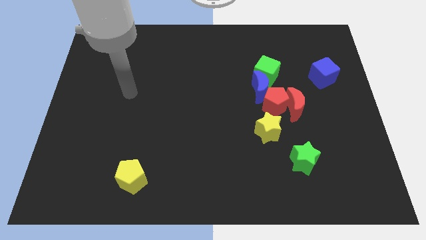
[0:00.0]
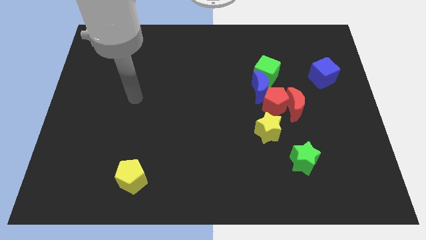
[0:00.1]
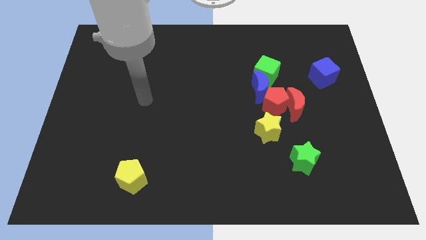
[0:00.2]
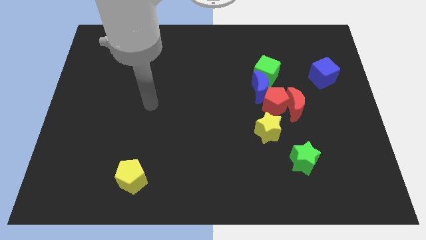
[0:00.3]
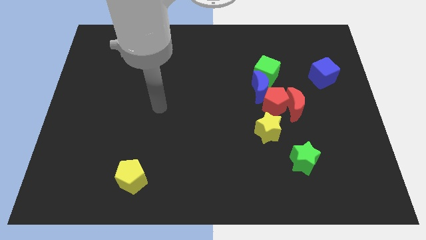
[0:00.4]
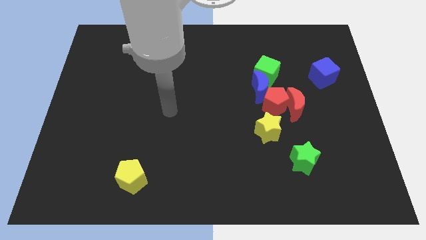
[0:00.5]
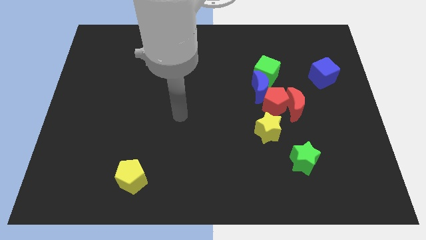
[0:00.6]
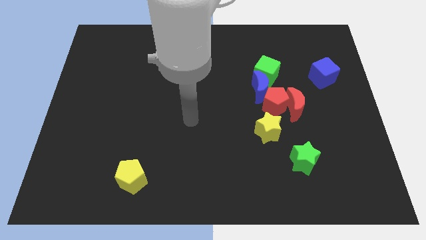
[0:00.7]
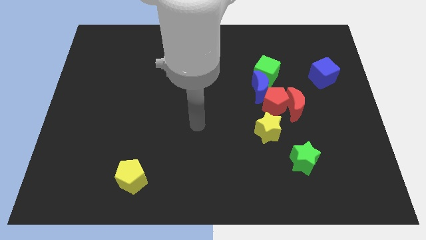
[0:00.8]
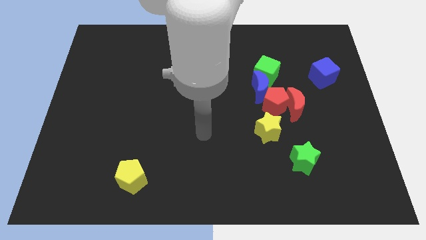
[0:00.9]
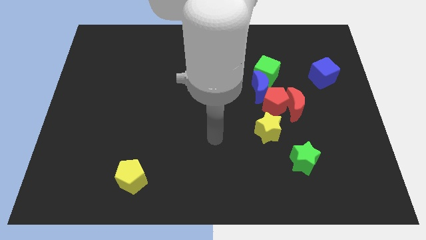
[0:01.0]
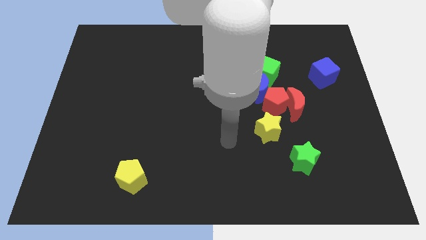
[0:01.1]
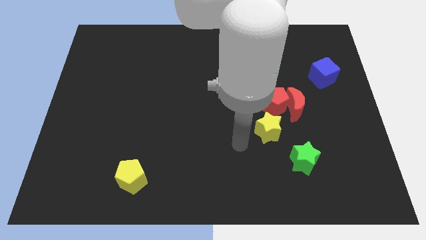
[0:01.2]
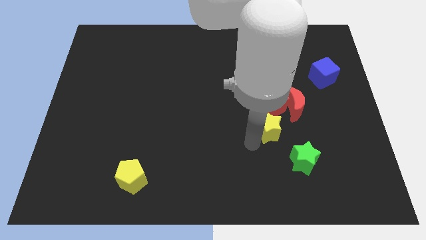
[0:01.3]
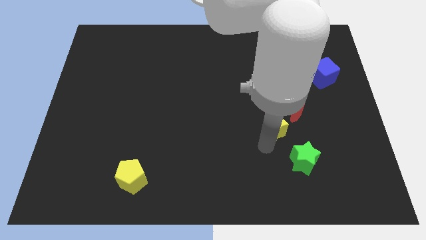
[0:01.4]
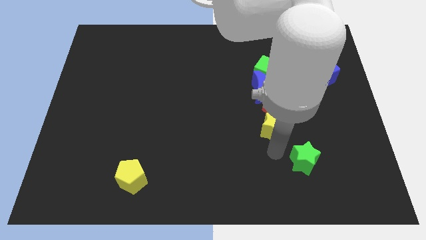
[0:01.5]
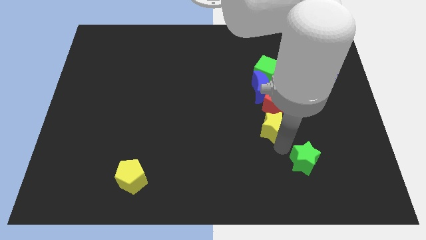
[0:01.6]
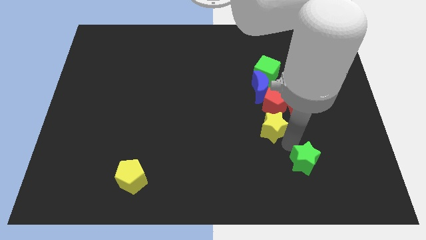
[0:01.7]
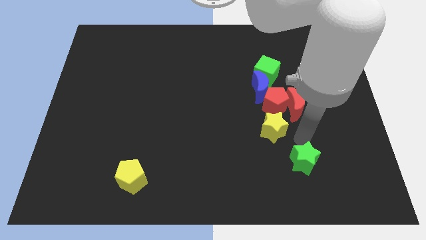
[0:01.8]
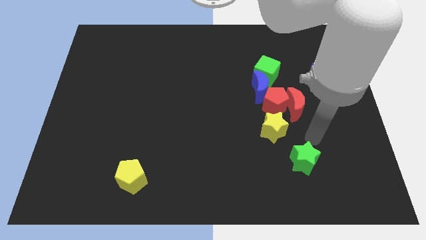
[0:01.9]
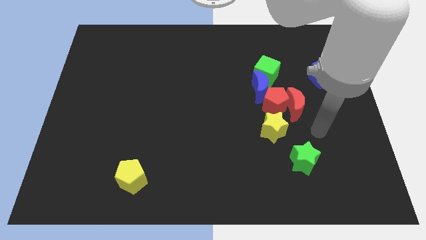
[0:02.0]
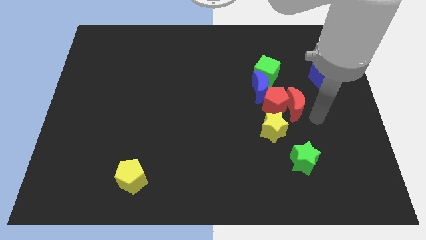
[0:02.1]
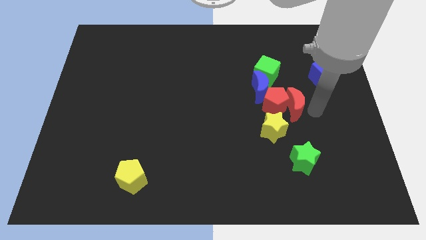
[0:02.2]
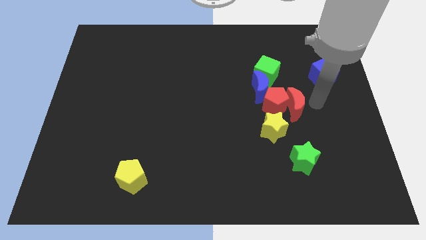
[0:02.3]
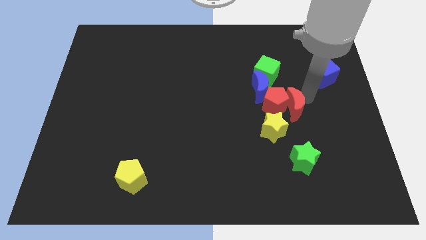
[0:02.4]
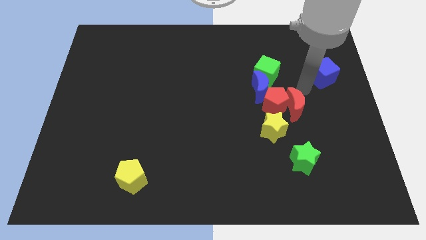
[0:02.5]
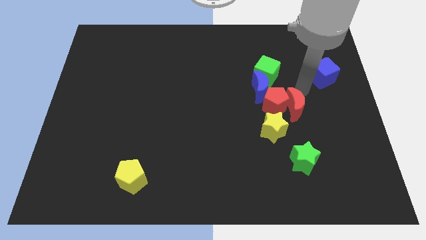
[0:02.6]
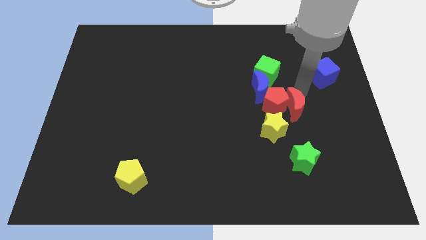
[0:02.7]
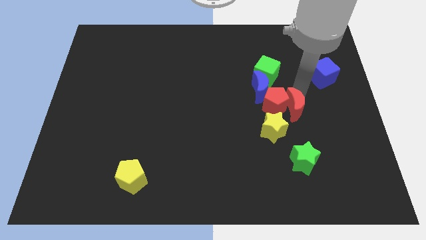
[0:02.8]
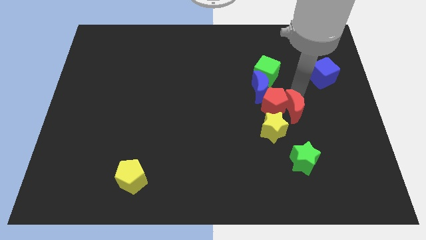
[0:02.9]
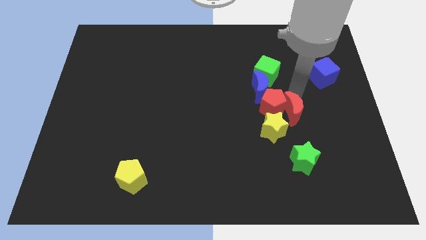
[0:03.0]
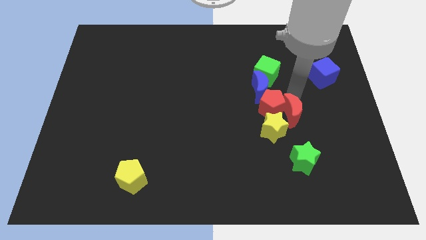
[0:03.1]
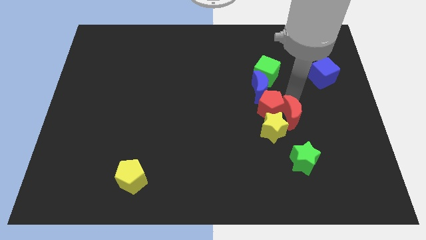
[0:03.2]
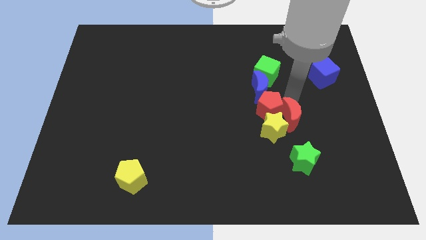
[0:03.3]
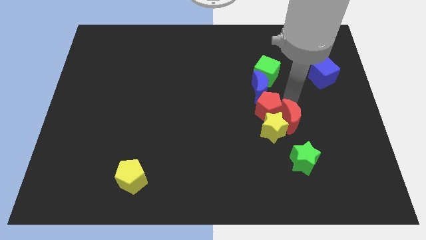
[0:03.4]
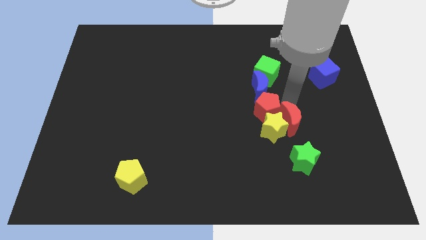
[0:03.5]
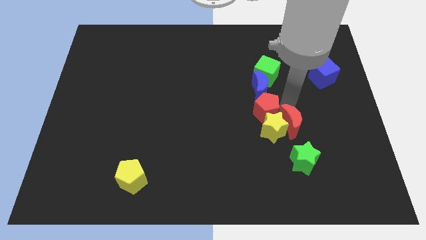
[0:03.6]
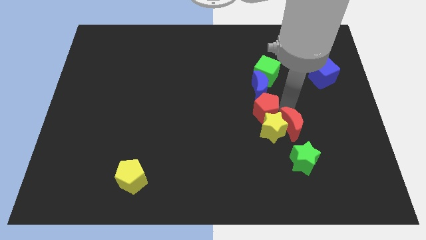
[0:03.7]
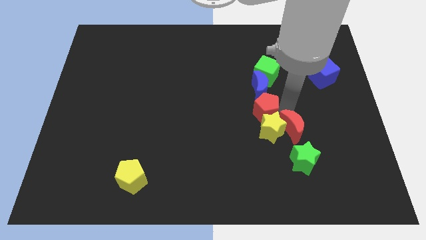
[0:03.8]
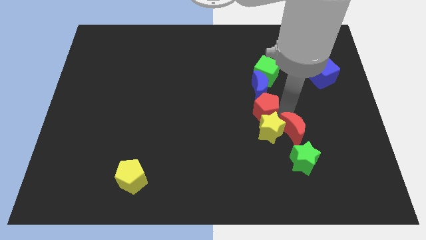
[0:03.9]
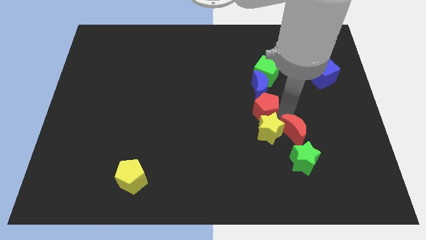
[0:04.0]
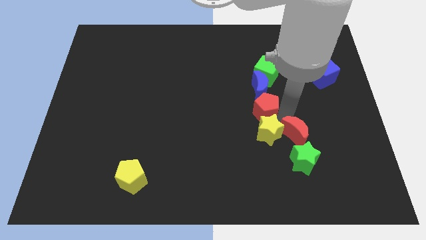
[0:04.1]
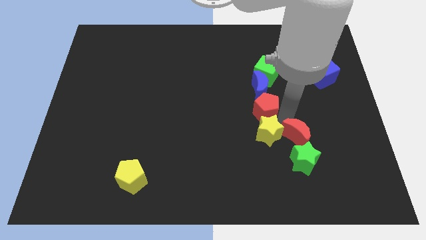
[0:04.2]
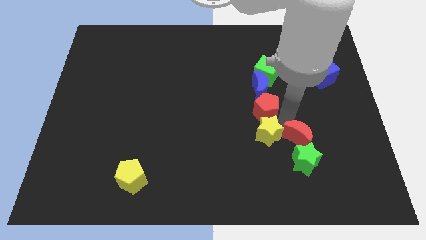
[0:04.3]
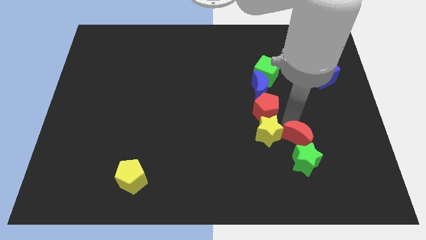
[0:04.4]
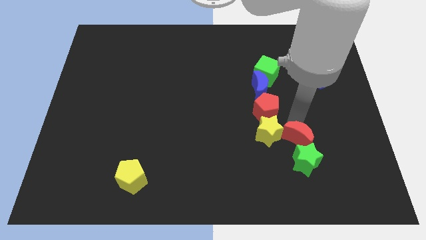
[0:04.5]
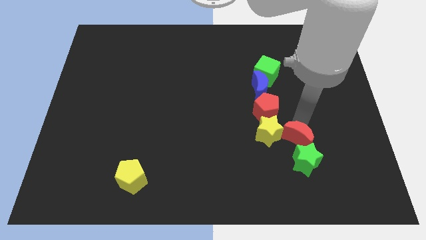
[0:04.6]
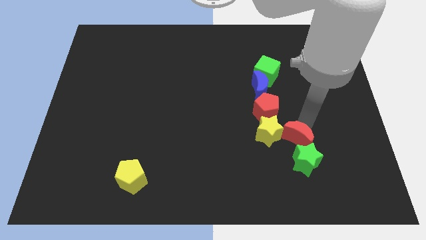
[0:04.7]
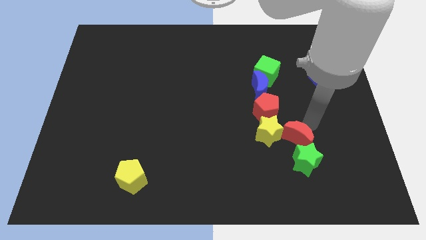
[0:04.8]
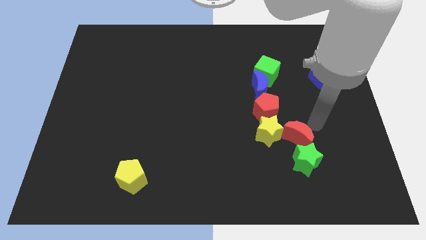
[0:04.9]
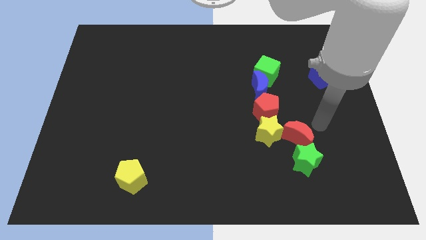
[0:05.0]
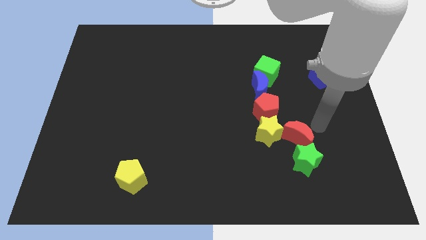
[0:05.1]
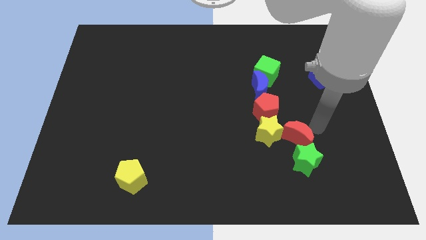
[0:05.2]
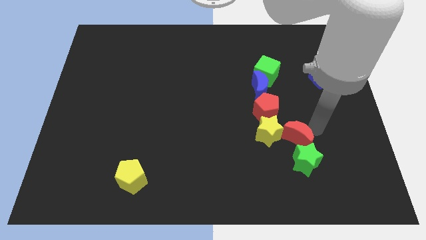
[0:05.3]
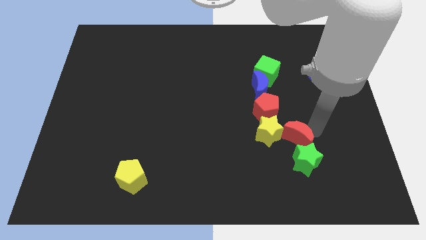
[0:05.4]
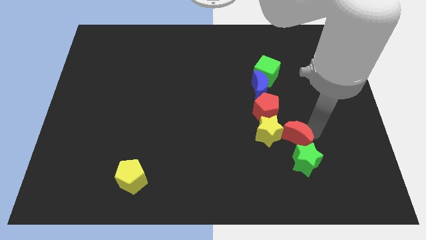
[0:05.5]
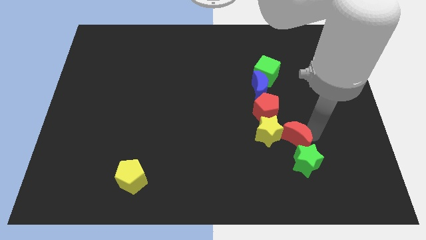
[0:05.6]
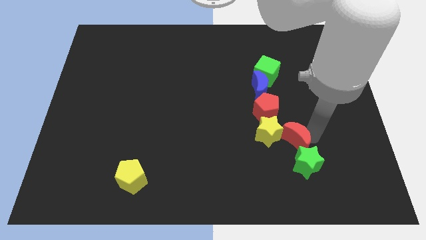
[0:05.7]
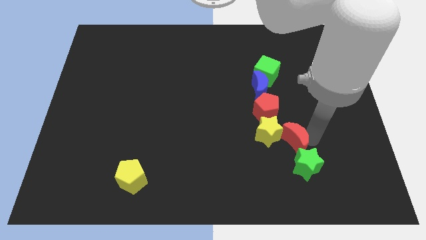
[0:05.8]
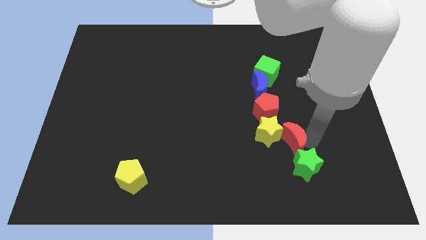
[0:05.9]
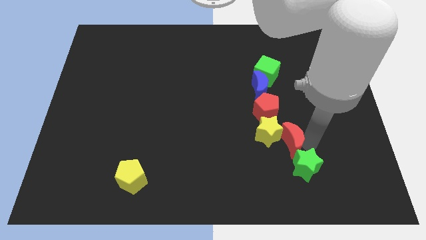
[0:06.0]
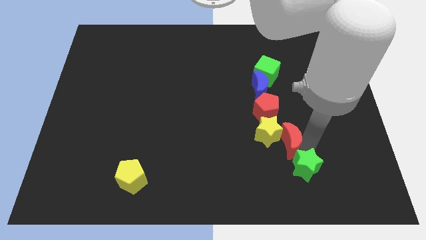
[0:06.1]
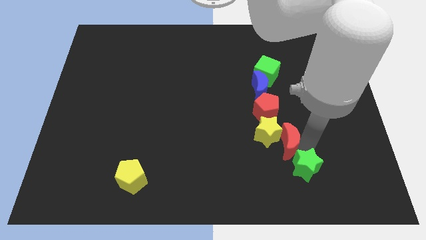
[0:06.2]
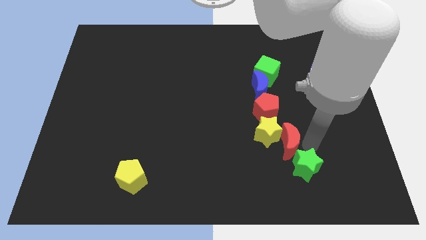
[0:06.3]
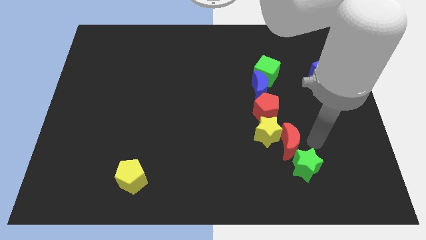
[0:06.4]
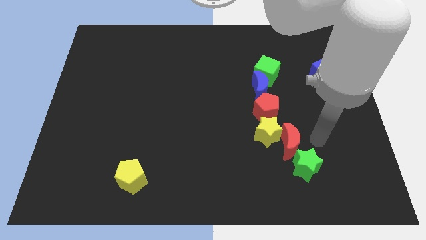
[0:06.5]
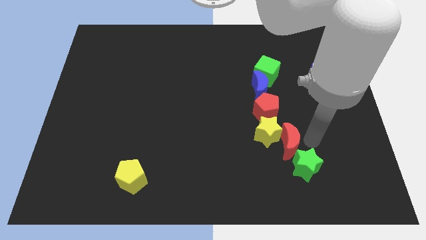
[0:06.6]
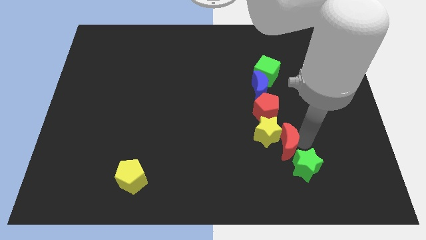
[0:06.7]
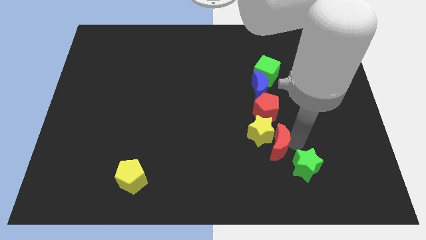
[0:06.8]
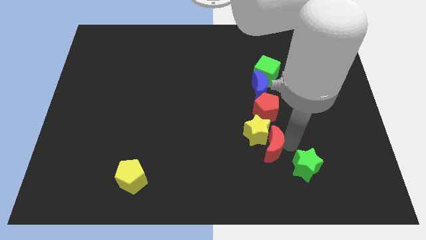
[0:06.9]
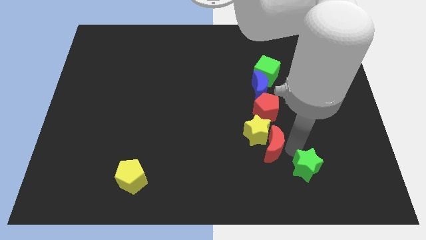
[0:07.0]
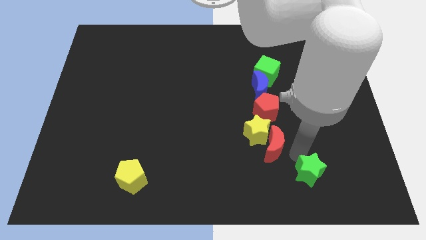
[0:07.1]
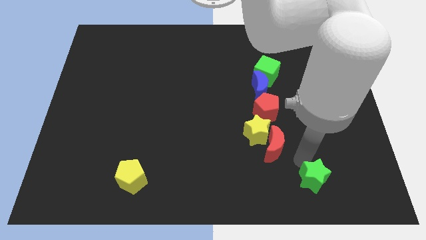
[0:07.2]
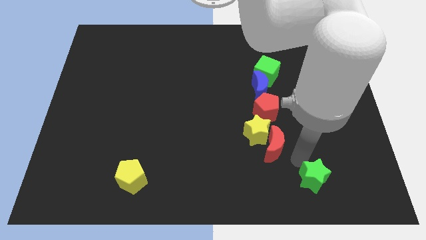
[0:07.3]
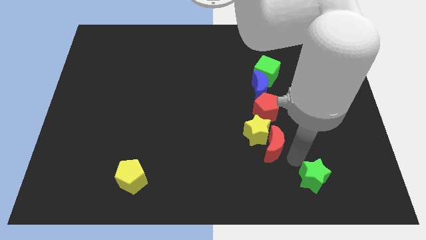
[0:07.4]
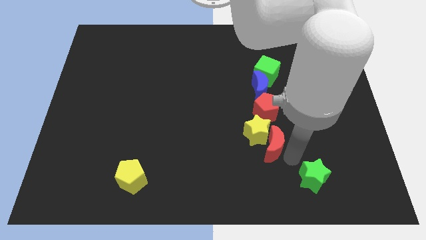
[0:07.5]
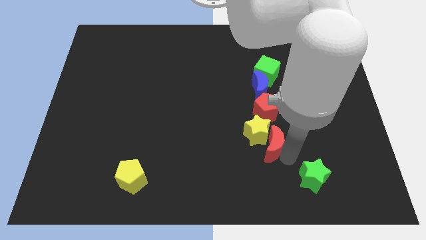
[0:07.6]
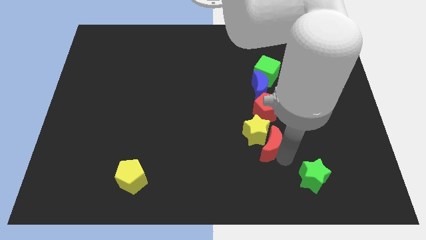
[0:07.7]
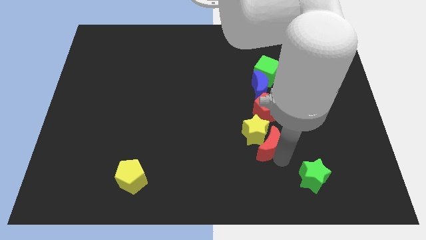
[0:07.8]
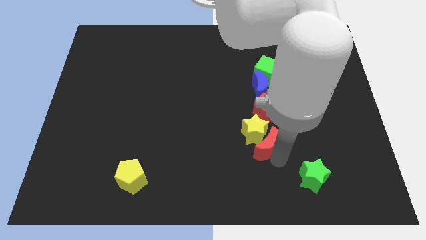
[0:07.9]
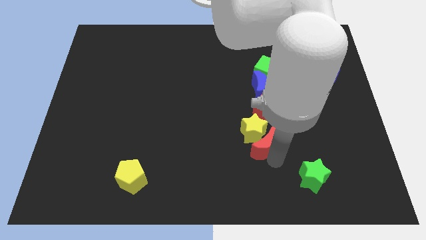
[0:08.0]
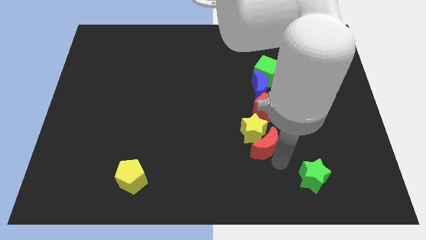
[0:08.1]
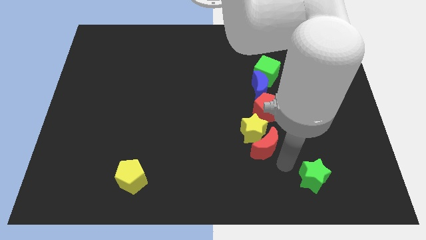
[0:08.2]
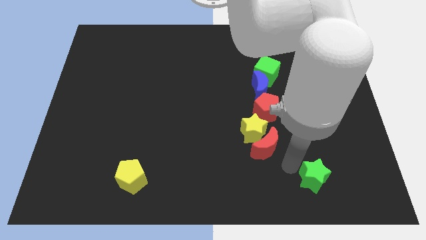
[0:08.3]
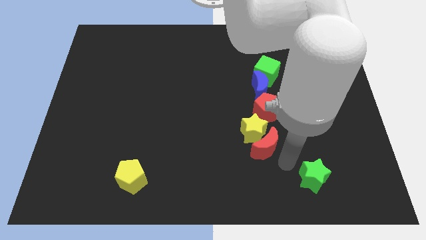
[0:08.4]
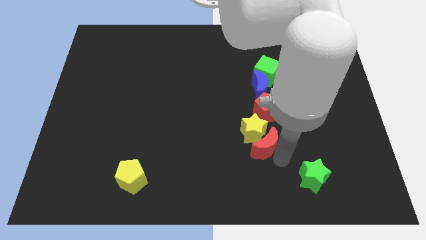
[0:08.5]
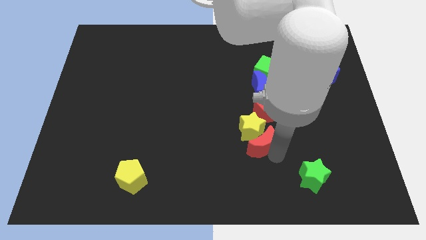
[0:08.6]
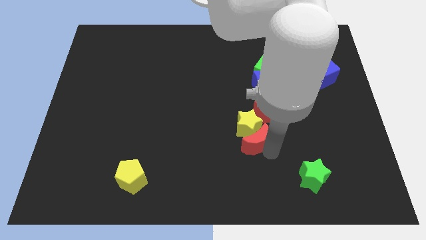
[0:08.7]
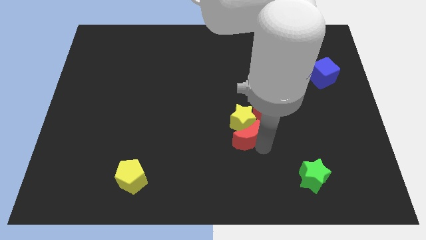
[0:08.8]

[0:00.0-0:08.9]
slide the red moon left a little
